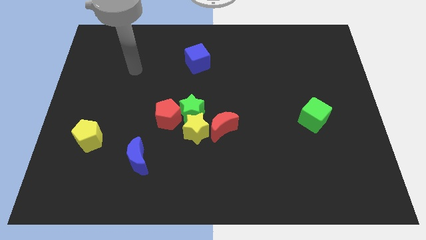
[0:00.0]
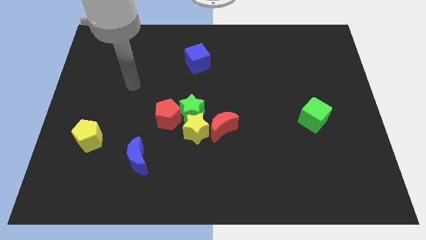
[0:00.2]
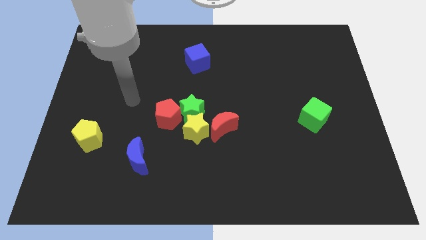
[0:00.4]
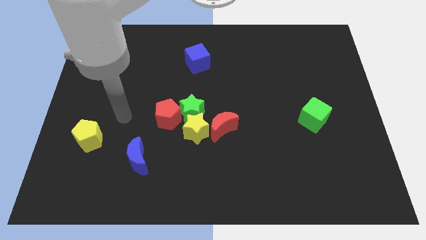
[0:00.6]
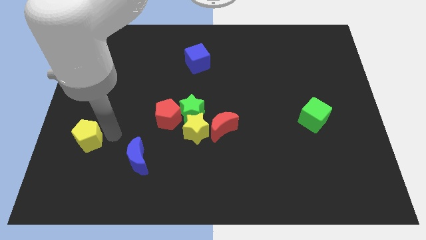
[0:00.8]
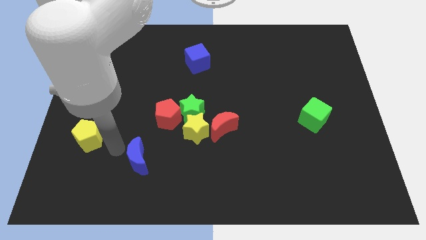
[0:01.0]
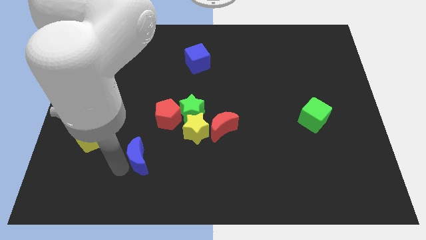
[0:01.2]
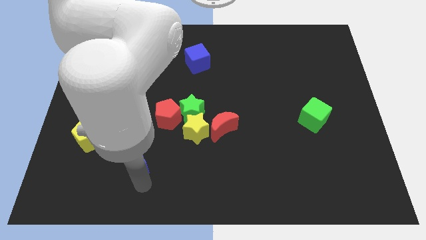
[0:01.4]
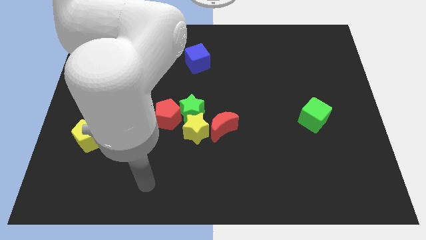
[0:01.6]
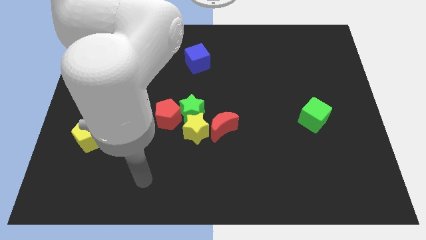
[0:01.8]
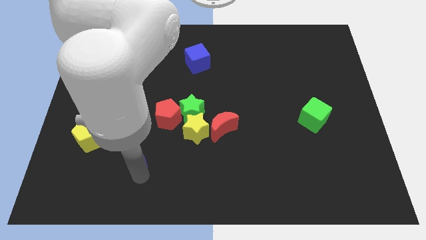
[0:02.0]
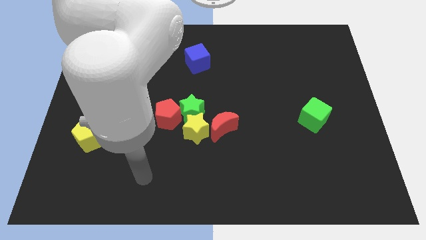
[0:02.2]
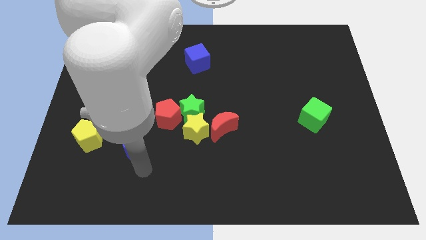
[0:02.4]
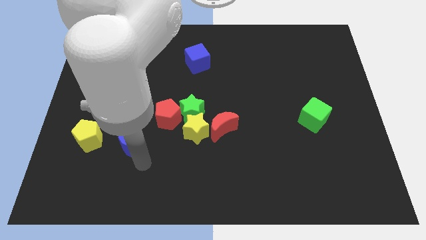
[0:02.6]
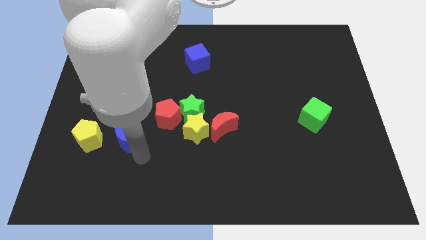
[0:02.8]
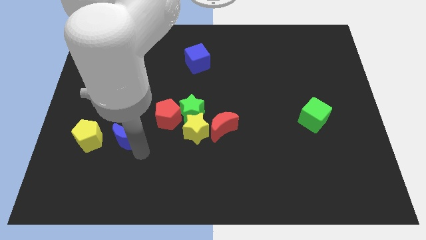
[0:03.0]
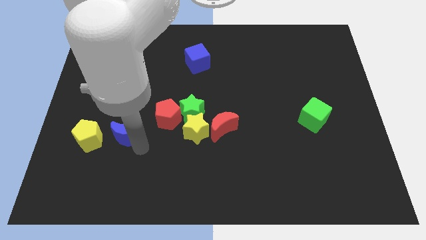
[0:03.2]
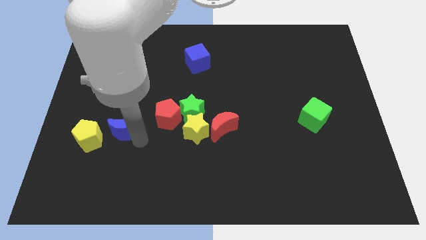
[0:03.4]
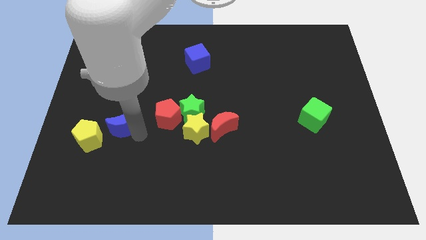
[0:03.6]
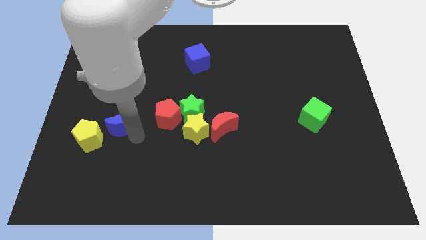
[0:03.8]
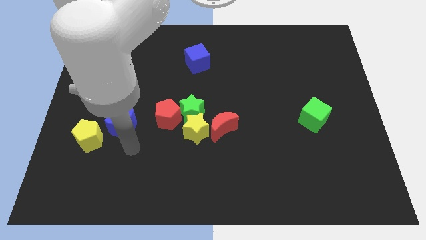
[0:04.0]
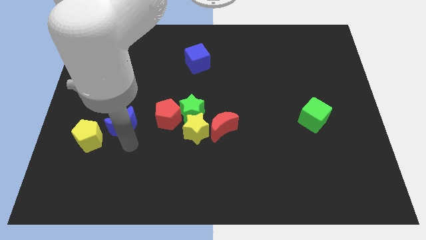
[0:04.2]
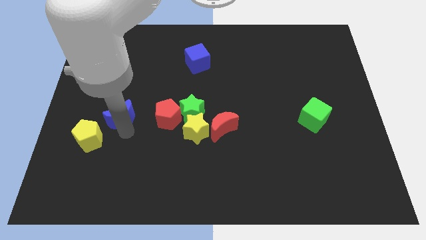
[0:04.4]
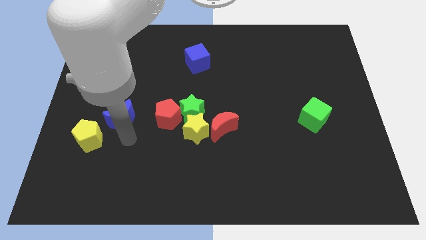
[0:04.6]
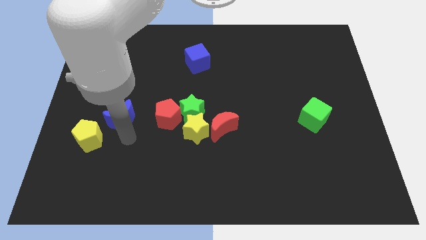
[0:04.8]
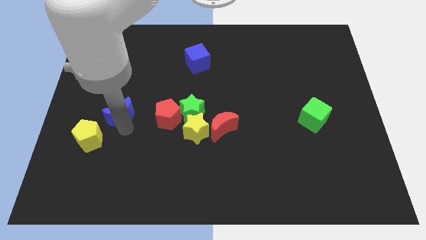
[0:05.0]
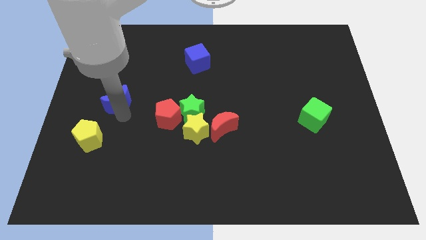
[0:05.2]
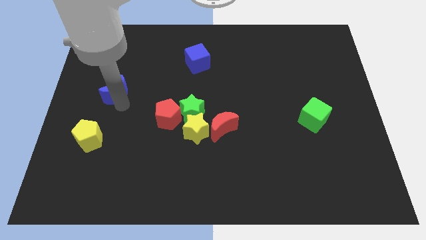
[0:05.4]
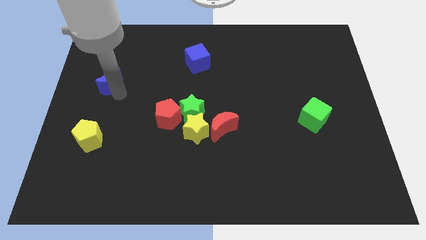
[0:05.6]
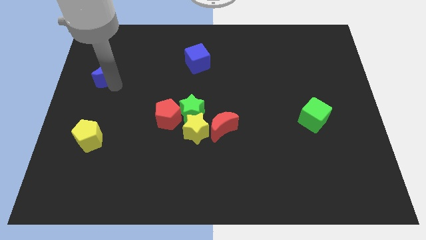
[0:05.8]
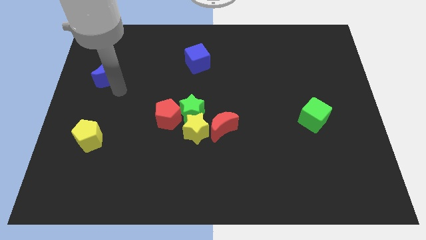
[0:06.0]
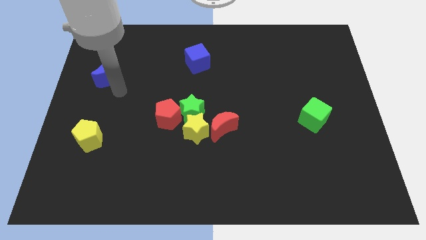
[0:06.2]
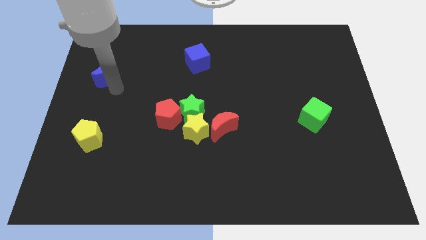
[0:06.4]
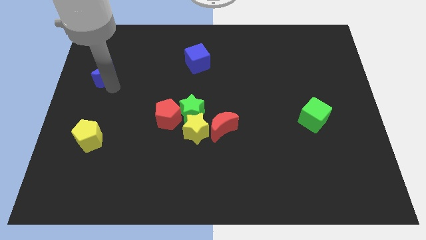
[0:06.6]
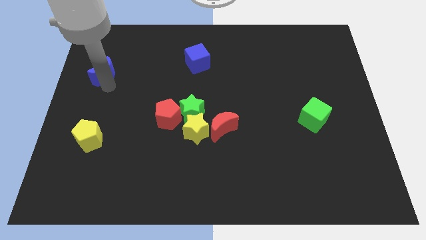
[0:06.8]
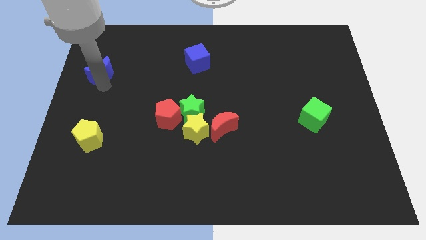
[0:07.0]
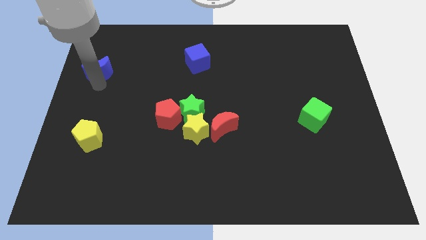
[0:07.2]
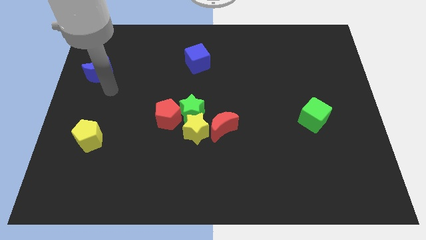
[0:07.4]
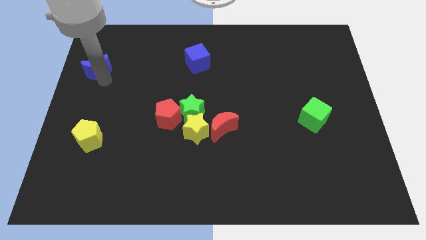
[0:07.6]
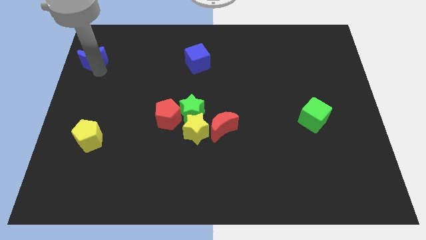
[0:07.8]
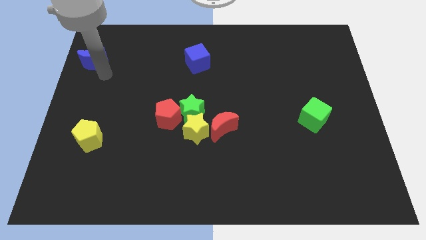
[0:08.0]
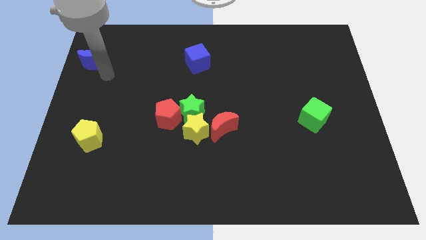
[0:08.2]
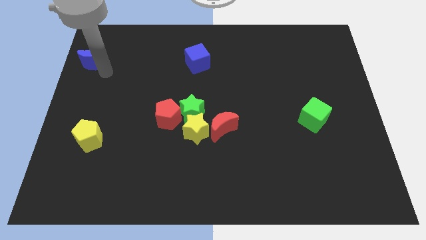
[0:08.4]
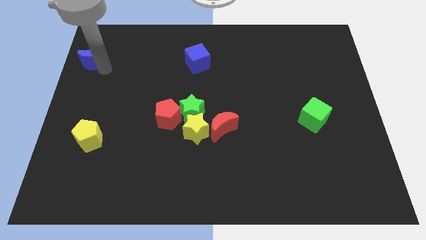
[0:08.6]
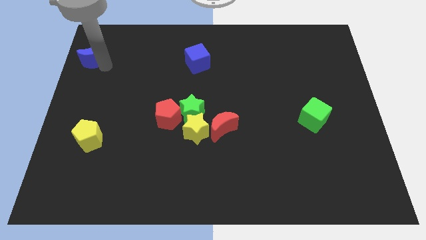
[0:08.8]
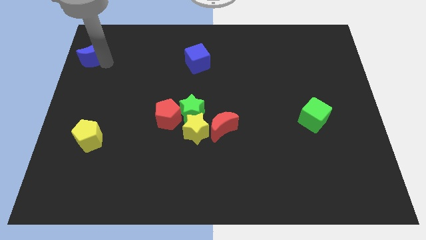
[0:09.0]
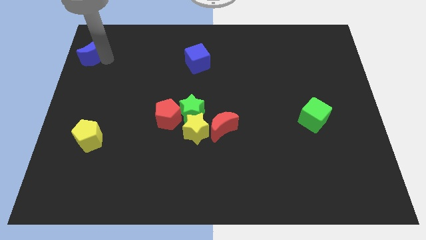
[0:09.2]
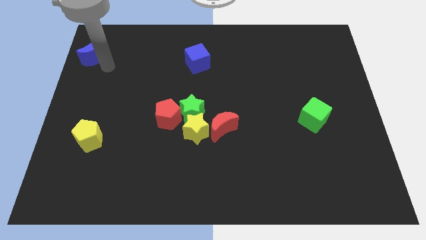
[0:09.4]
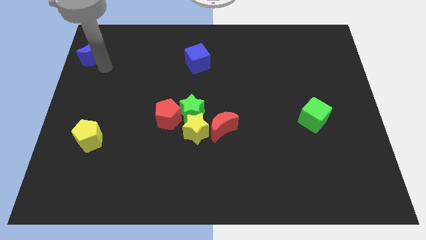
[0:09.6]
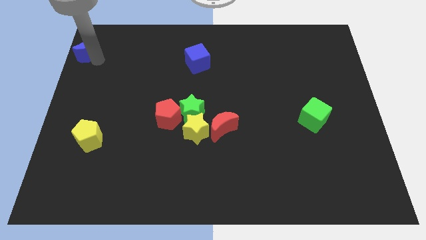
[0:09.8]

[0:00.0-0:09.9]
put the blue moon to the top left of the board

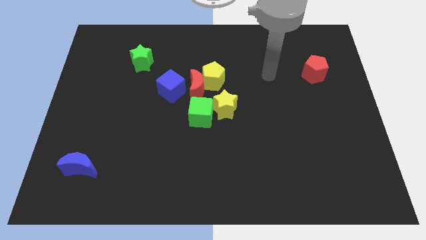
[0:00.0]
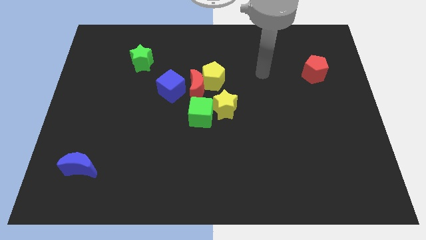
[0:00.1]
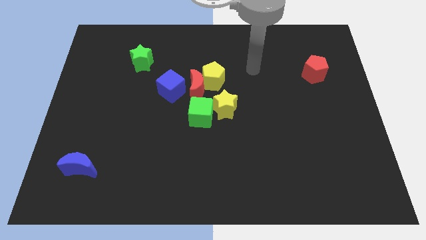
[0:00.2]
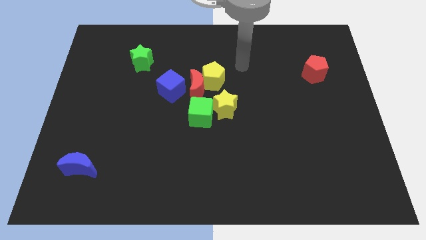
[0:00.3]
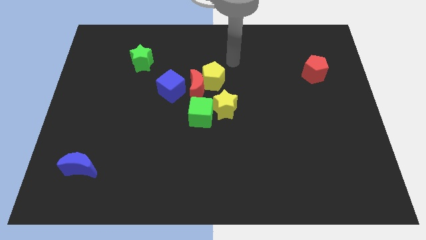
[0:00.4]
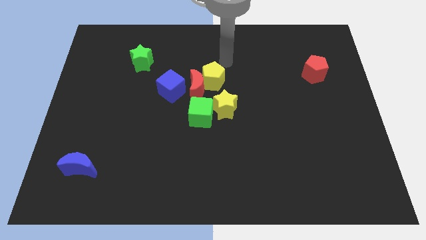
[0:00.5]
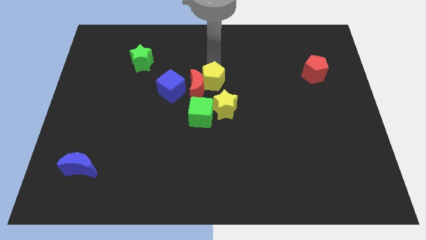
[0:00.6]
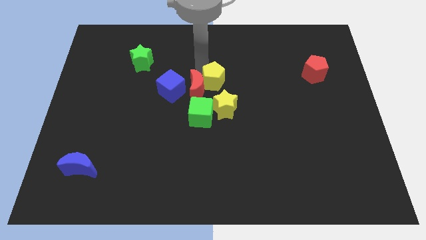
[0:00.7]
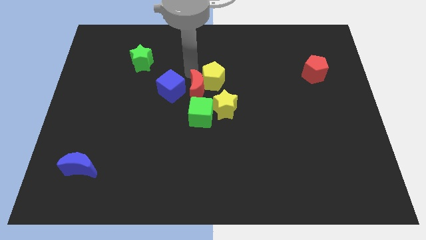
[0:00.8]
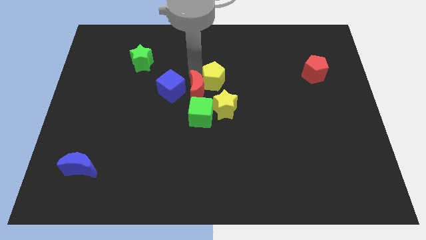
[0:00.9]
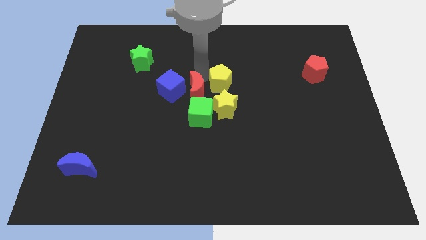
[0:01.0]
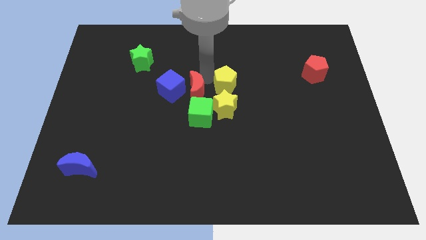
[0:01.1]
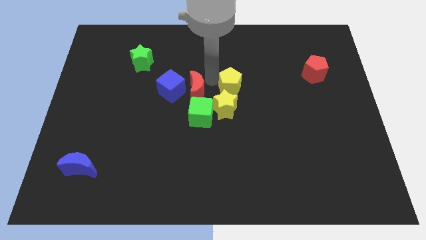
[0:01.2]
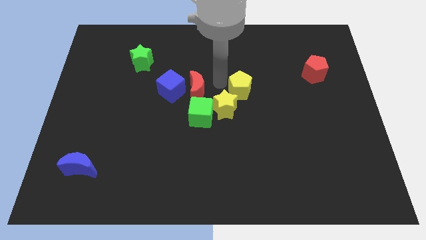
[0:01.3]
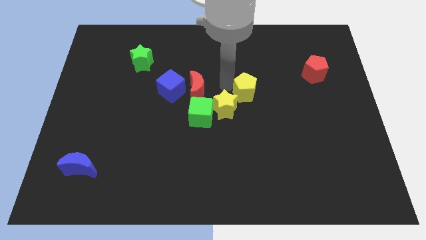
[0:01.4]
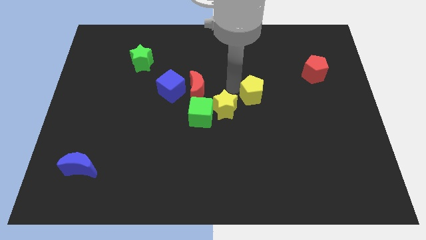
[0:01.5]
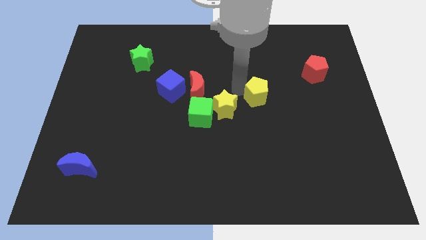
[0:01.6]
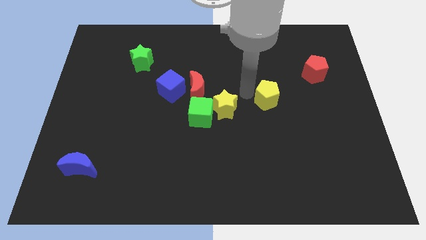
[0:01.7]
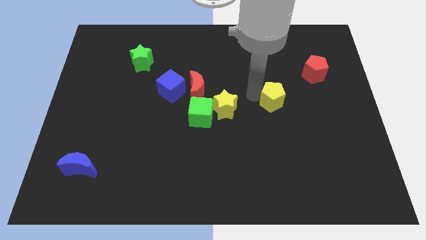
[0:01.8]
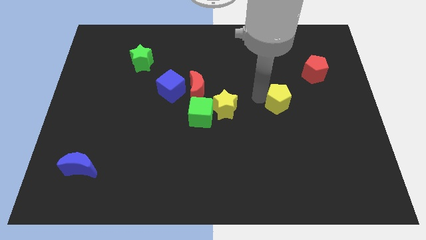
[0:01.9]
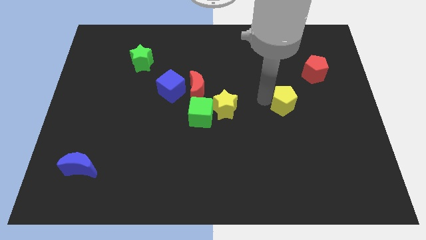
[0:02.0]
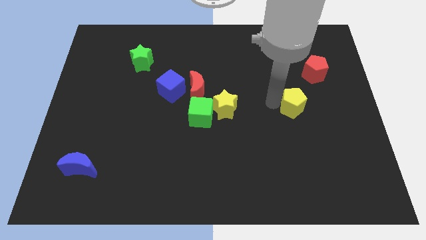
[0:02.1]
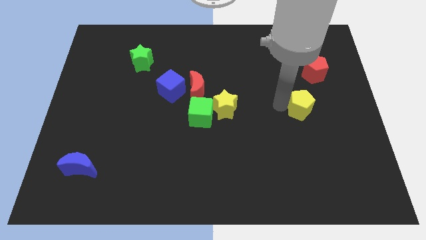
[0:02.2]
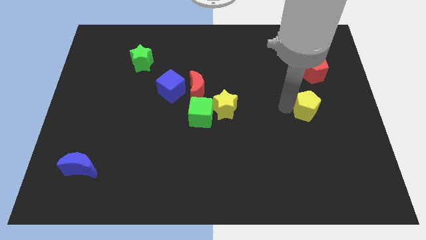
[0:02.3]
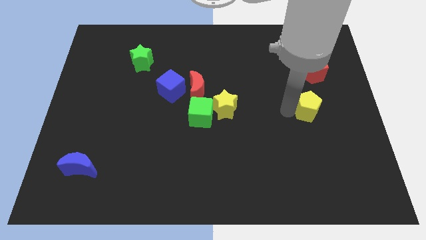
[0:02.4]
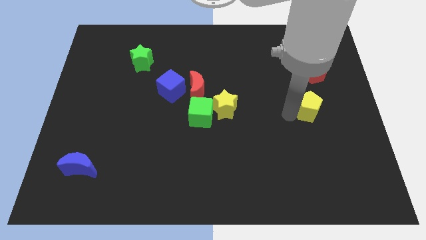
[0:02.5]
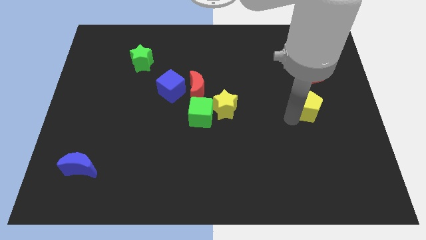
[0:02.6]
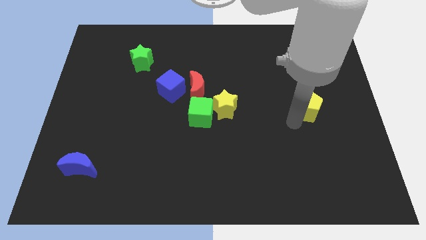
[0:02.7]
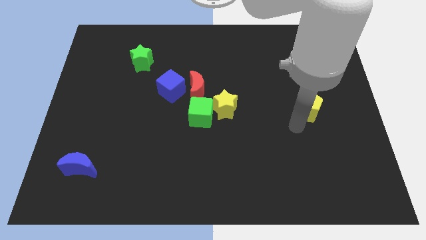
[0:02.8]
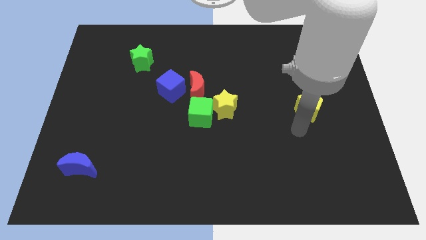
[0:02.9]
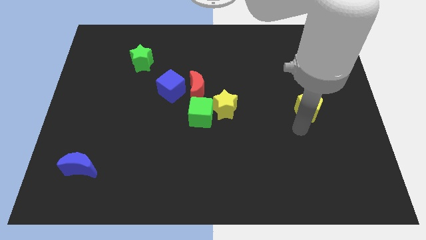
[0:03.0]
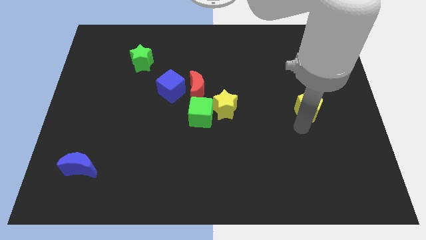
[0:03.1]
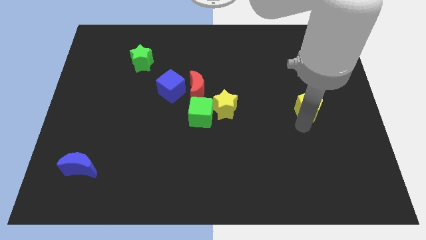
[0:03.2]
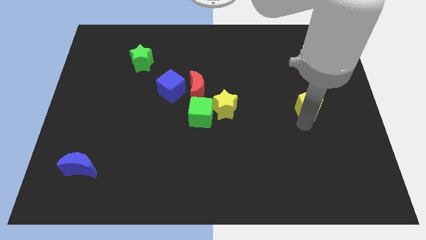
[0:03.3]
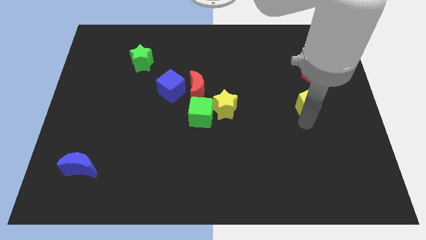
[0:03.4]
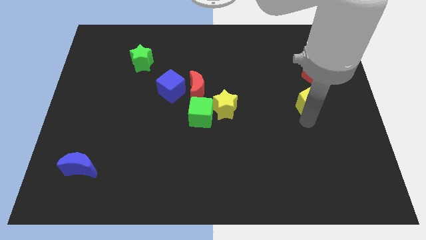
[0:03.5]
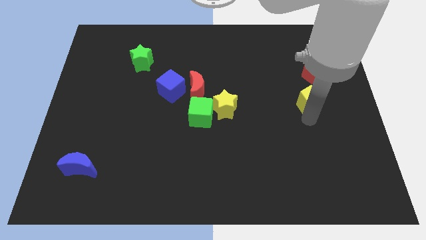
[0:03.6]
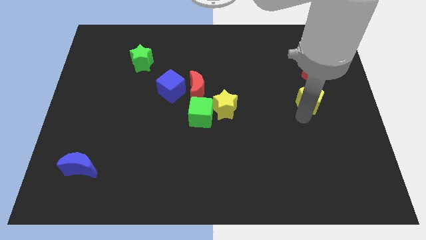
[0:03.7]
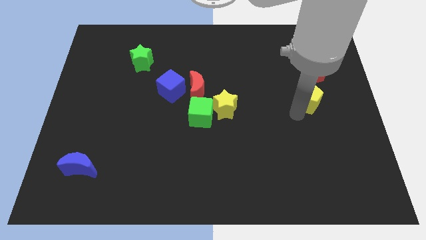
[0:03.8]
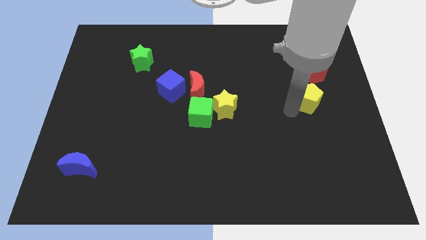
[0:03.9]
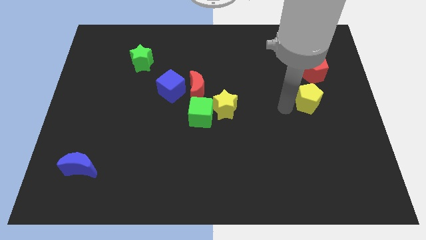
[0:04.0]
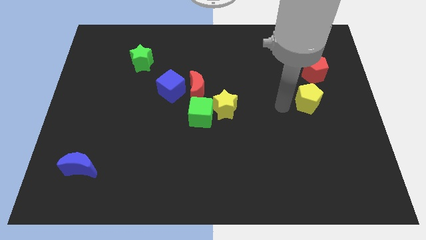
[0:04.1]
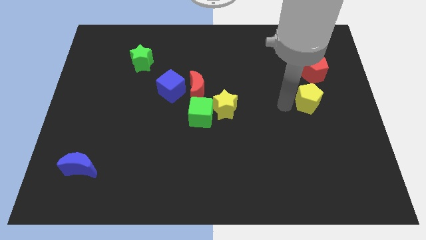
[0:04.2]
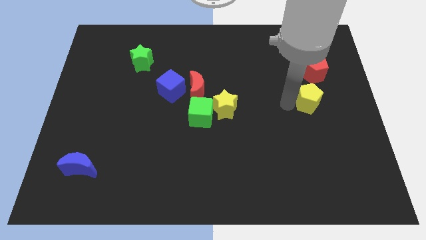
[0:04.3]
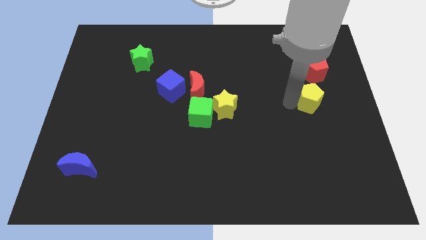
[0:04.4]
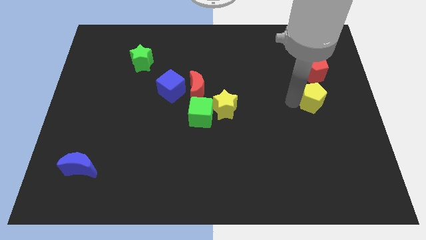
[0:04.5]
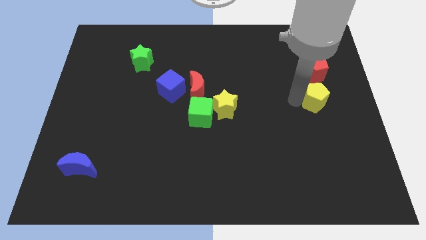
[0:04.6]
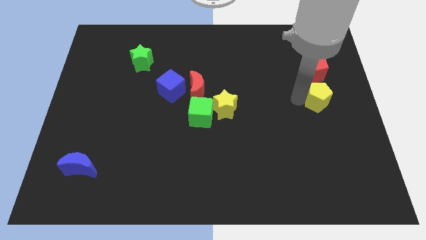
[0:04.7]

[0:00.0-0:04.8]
put the yellow pentagon to the center right
